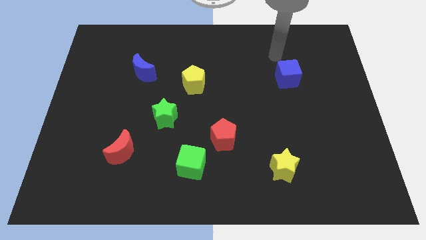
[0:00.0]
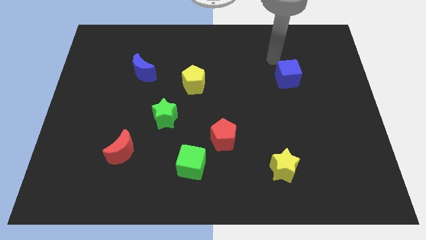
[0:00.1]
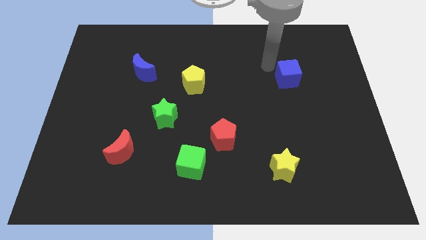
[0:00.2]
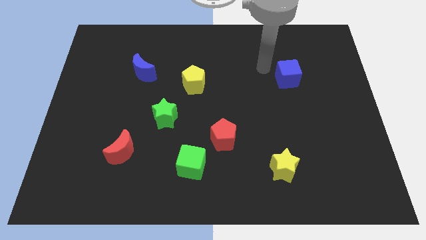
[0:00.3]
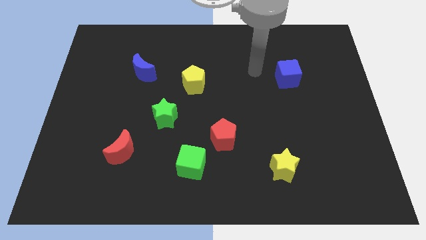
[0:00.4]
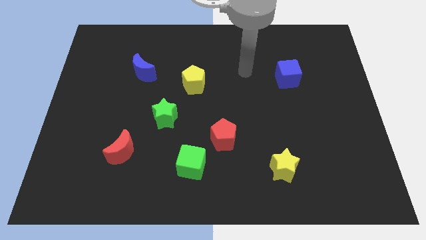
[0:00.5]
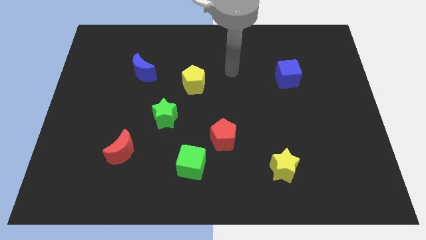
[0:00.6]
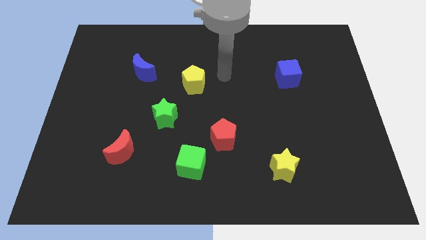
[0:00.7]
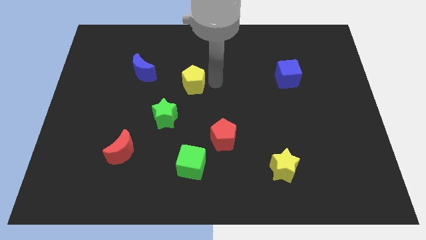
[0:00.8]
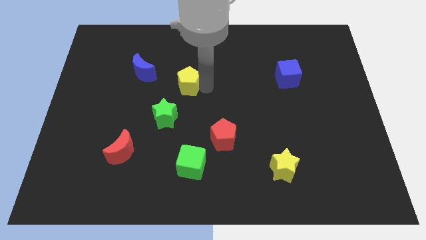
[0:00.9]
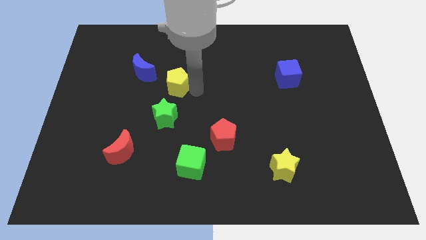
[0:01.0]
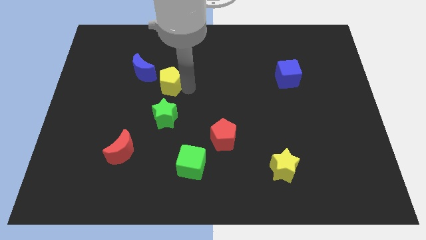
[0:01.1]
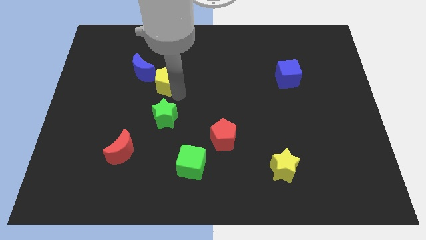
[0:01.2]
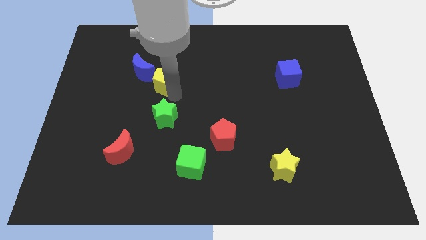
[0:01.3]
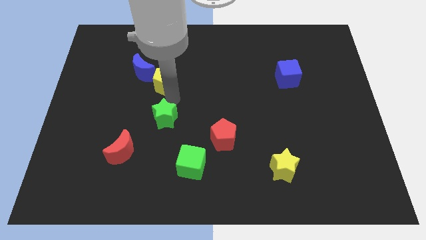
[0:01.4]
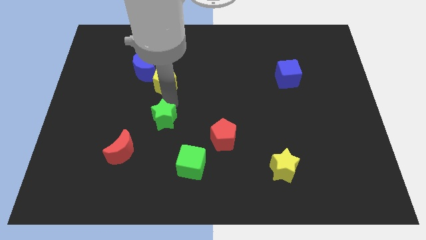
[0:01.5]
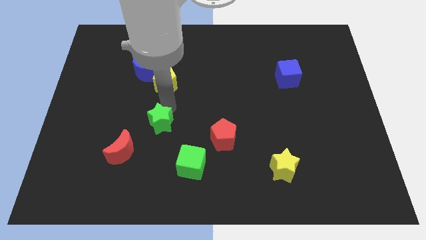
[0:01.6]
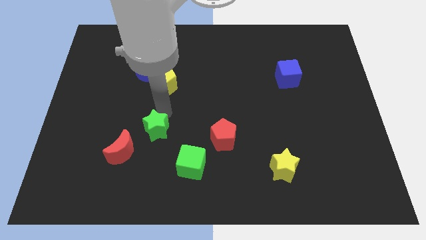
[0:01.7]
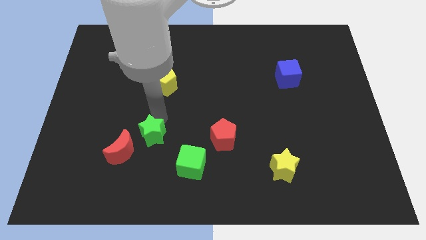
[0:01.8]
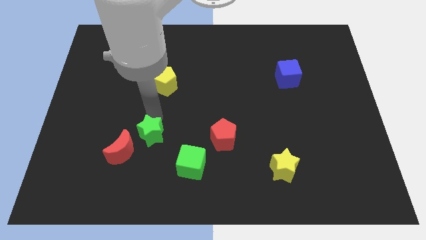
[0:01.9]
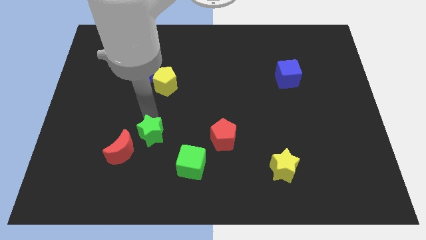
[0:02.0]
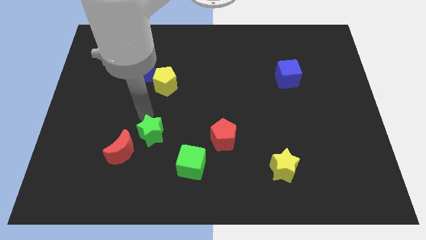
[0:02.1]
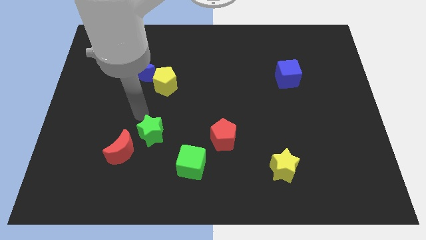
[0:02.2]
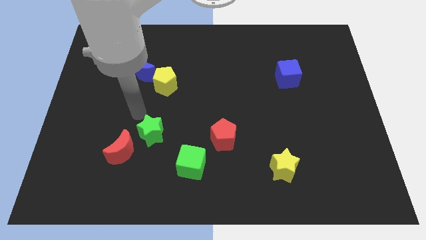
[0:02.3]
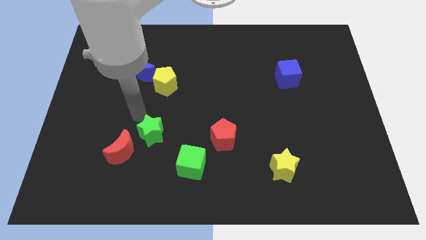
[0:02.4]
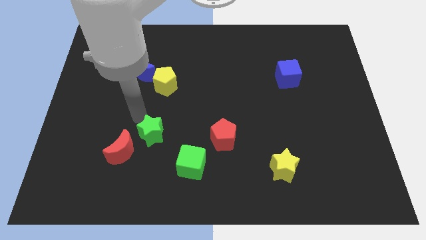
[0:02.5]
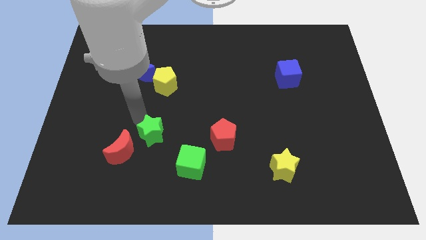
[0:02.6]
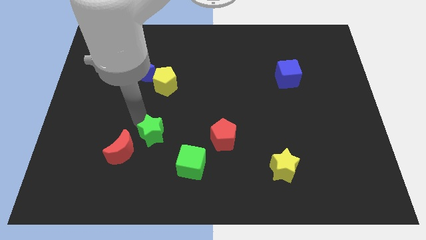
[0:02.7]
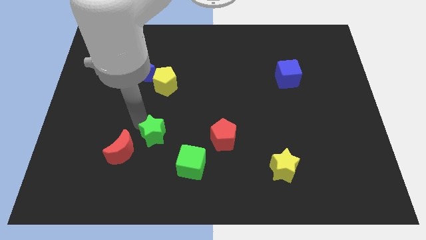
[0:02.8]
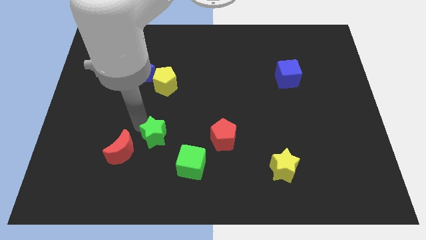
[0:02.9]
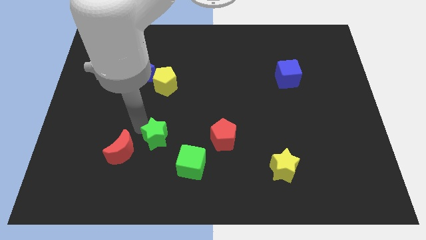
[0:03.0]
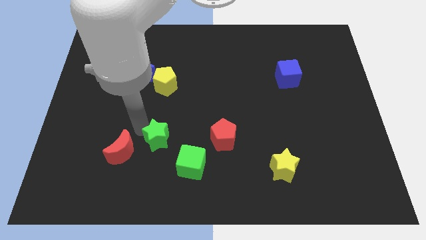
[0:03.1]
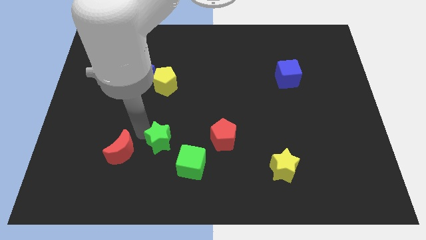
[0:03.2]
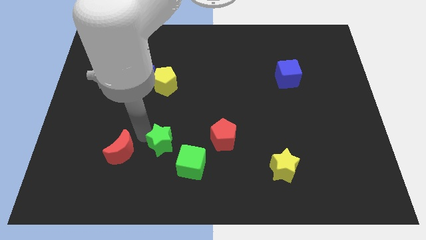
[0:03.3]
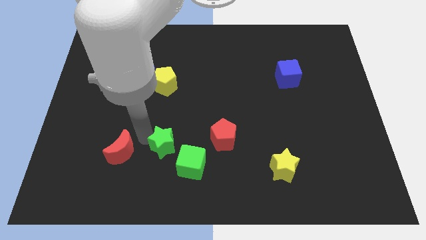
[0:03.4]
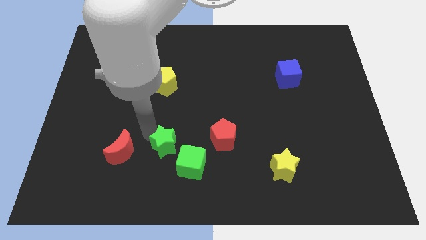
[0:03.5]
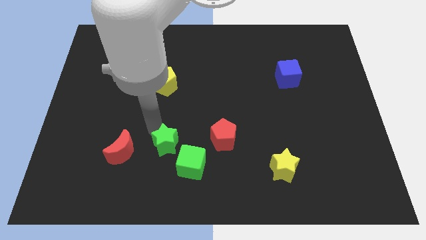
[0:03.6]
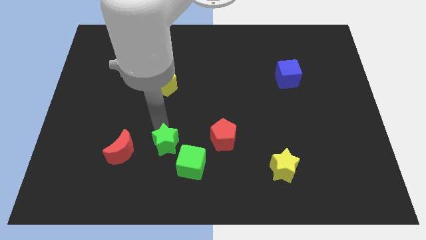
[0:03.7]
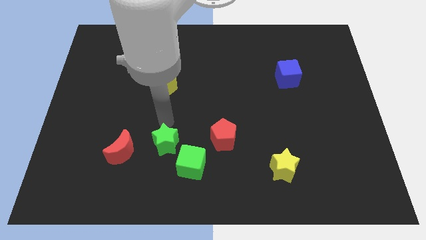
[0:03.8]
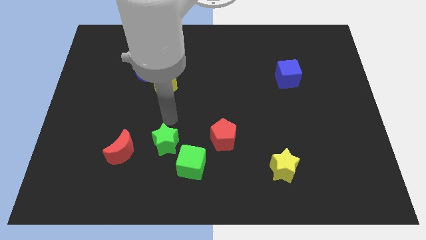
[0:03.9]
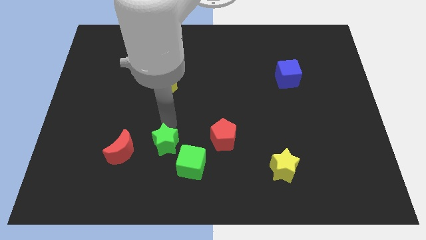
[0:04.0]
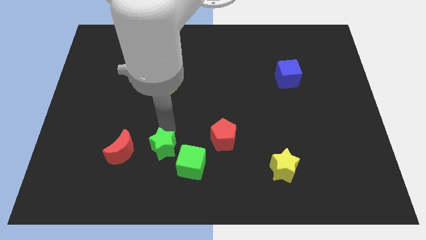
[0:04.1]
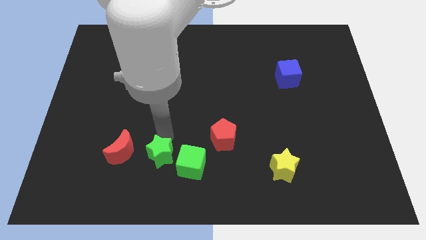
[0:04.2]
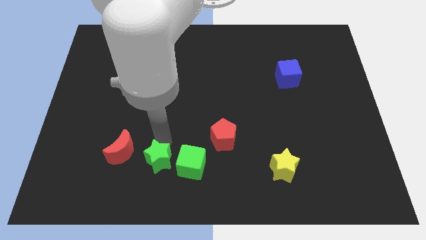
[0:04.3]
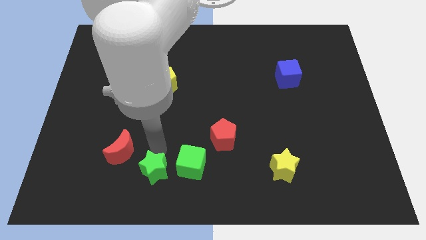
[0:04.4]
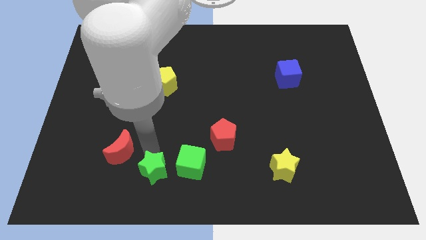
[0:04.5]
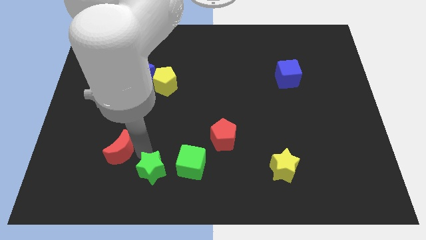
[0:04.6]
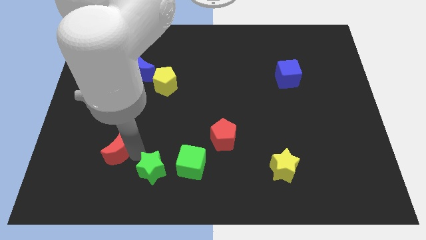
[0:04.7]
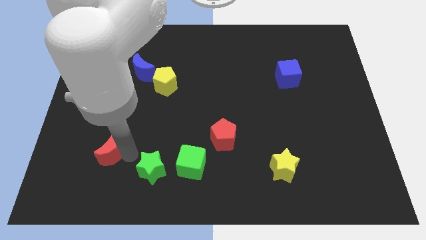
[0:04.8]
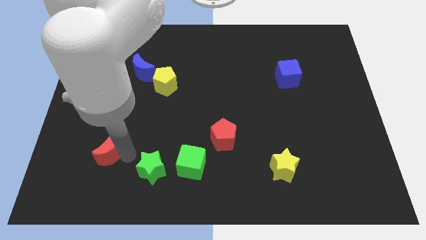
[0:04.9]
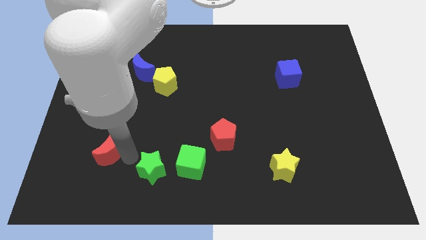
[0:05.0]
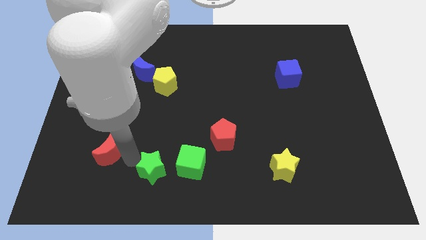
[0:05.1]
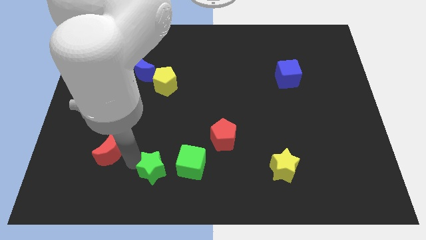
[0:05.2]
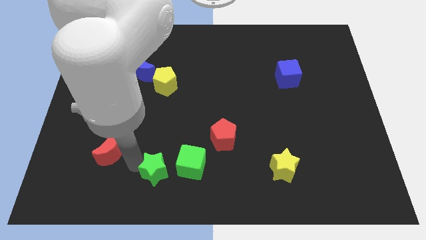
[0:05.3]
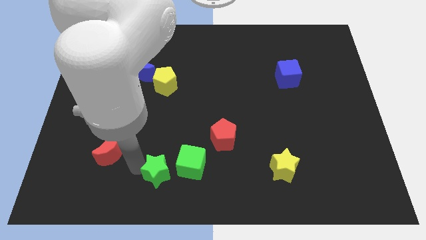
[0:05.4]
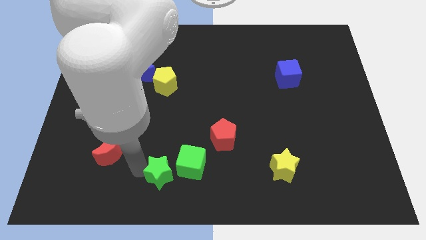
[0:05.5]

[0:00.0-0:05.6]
move the green star to the bottom

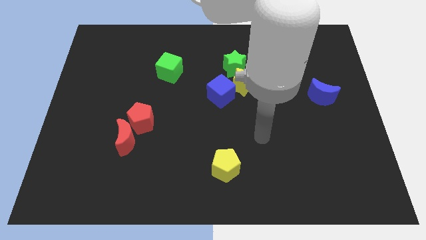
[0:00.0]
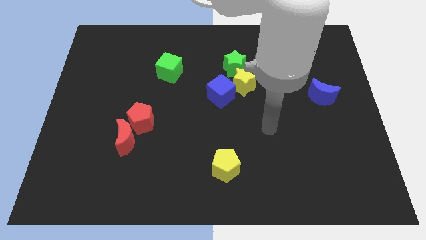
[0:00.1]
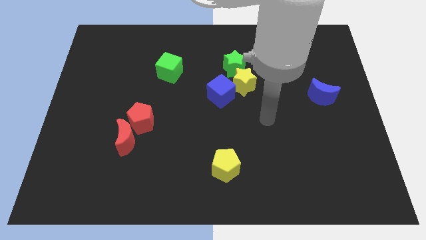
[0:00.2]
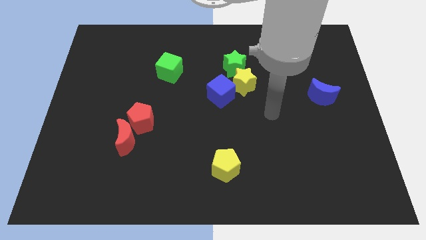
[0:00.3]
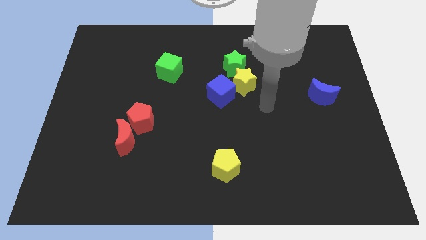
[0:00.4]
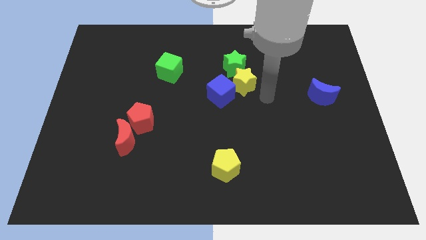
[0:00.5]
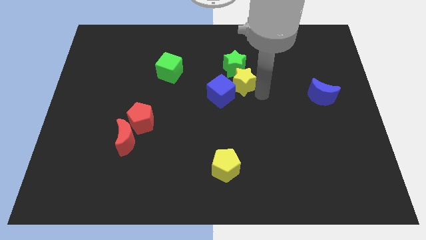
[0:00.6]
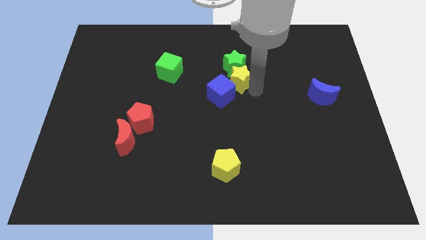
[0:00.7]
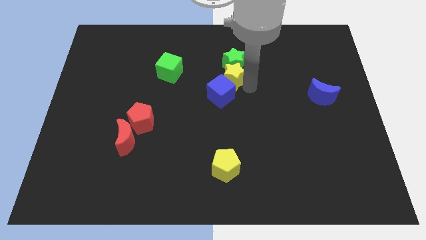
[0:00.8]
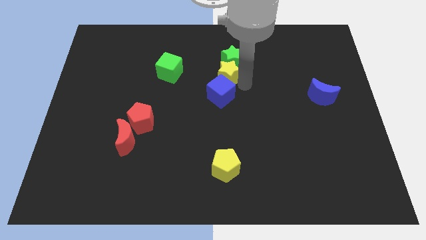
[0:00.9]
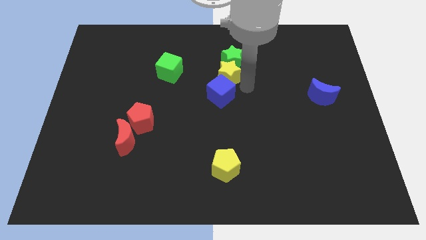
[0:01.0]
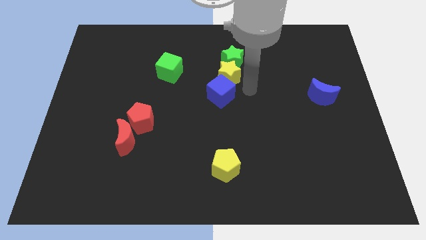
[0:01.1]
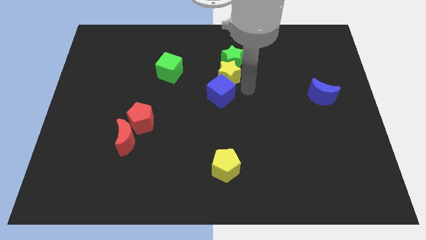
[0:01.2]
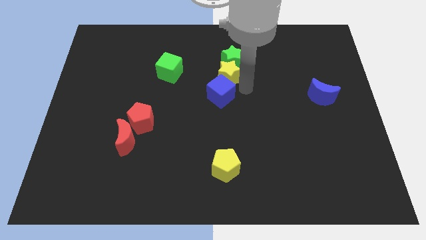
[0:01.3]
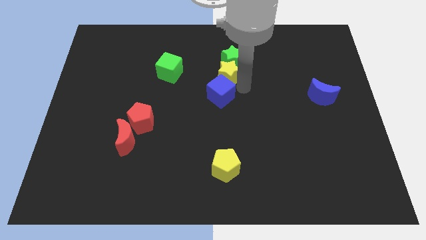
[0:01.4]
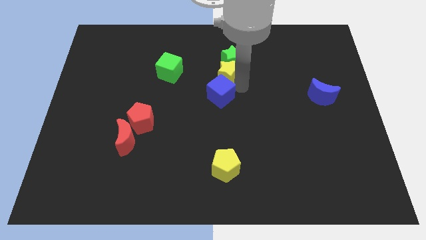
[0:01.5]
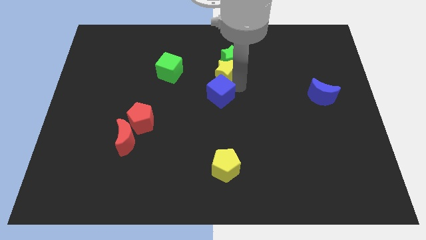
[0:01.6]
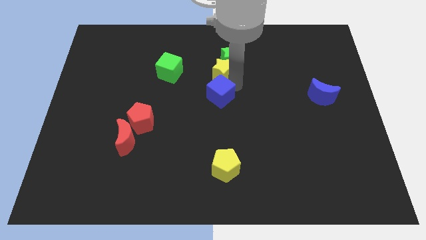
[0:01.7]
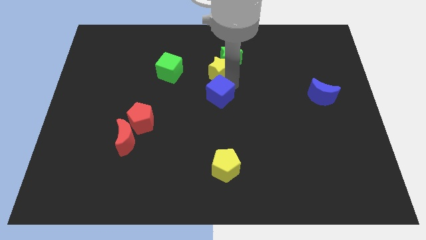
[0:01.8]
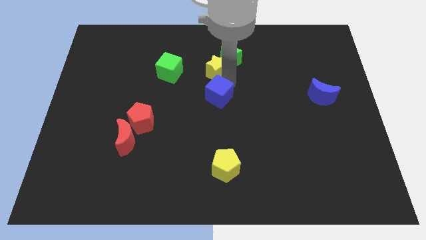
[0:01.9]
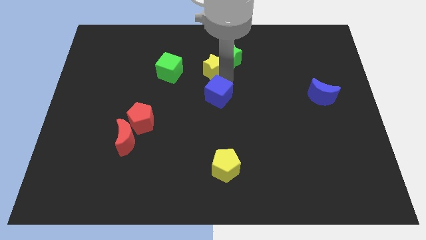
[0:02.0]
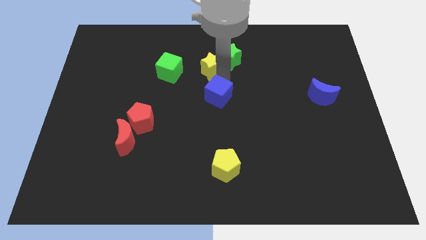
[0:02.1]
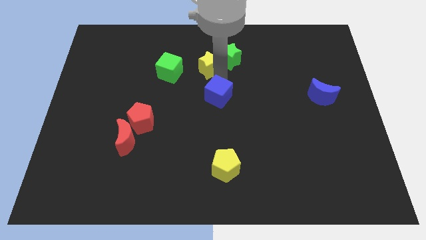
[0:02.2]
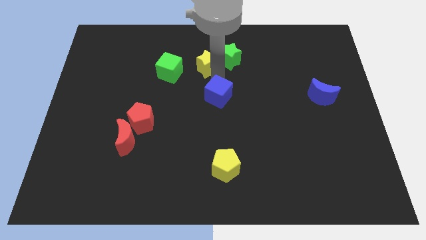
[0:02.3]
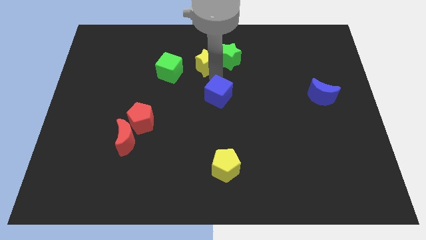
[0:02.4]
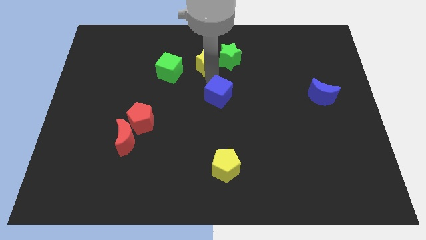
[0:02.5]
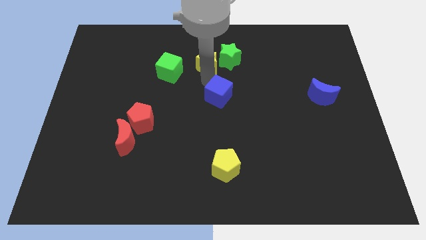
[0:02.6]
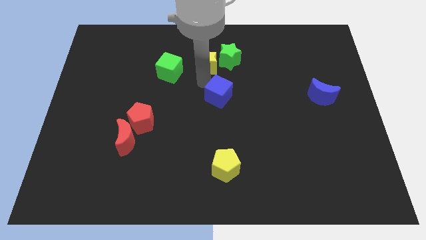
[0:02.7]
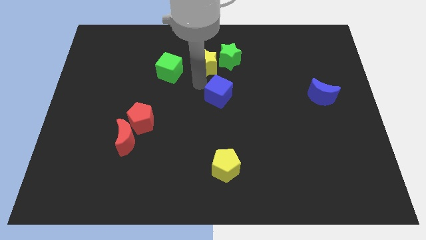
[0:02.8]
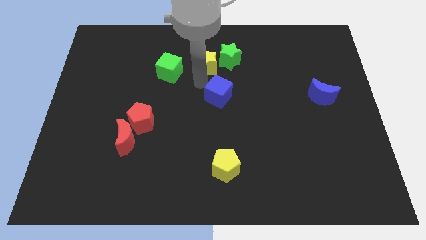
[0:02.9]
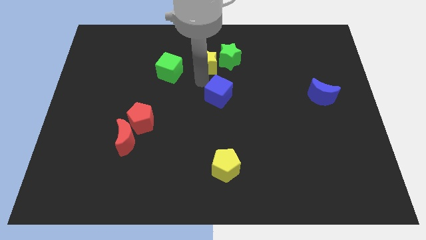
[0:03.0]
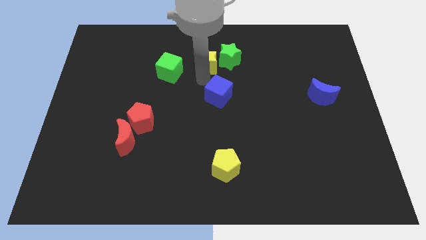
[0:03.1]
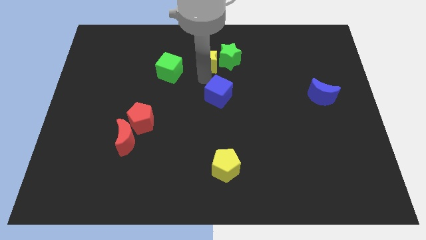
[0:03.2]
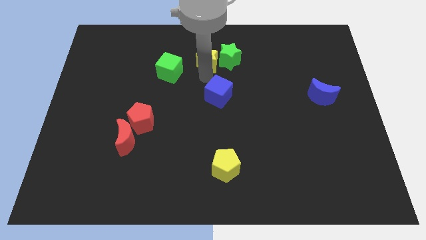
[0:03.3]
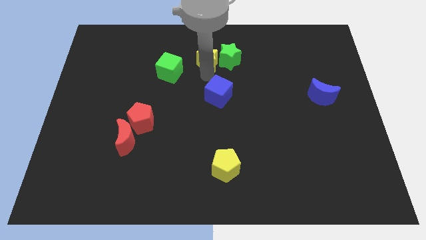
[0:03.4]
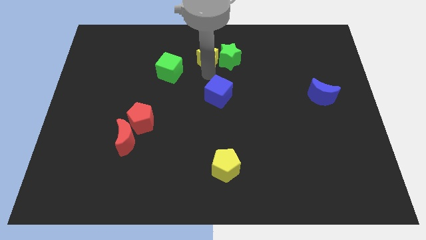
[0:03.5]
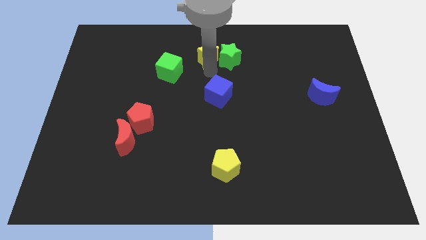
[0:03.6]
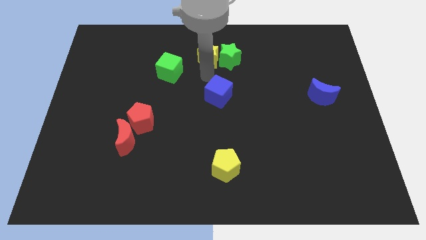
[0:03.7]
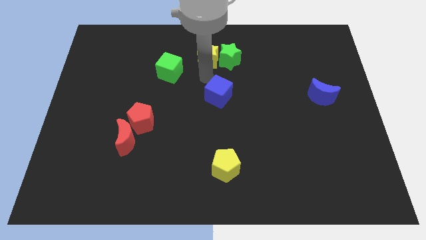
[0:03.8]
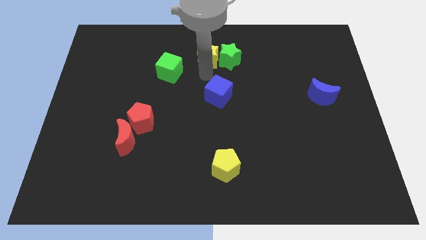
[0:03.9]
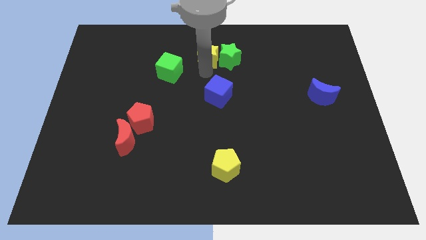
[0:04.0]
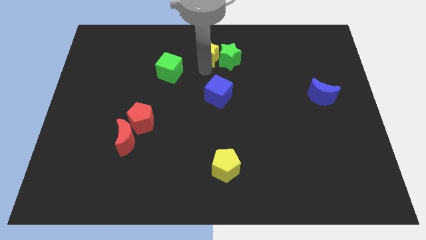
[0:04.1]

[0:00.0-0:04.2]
push the yellow star to the towards your base
